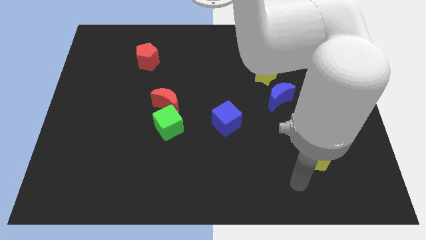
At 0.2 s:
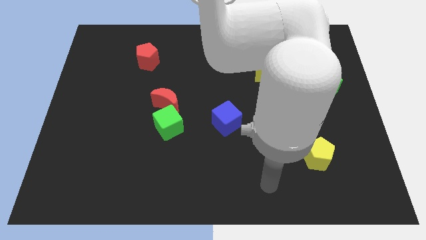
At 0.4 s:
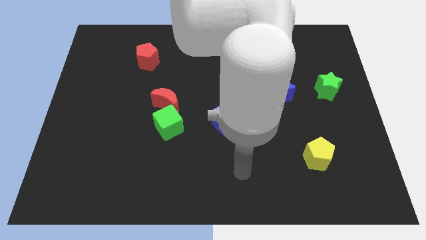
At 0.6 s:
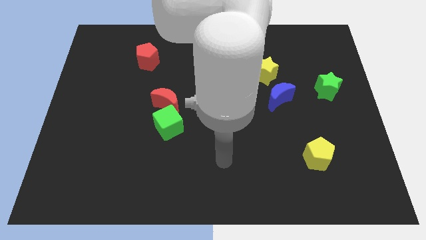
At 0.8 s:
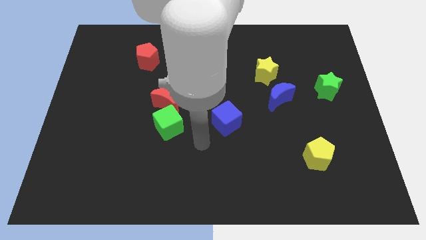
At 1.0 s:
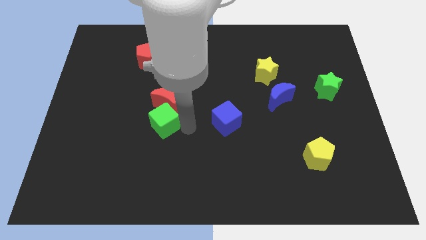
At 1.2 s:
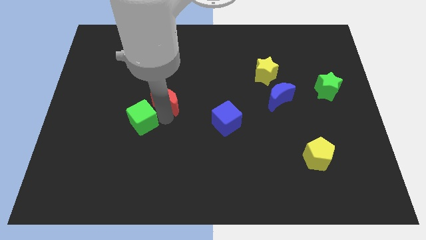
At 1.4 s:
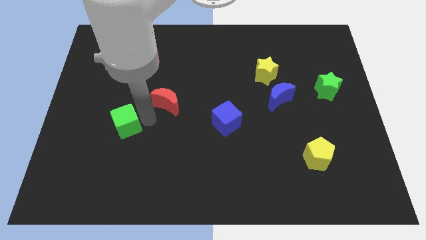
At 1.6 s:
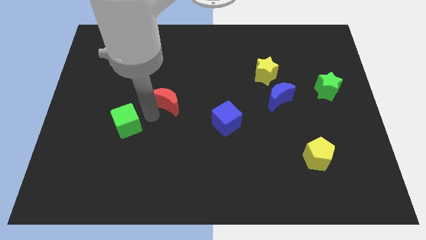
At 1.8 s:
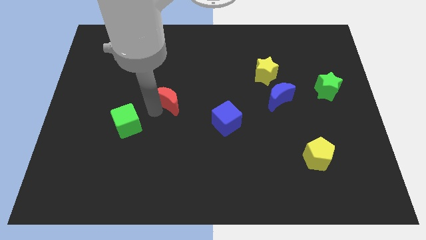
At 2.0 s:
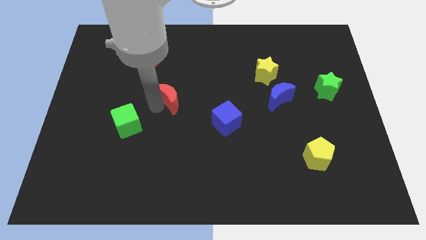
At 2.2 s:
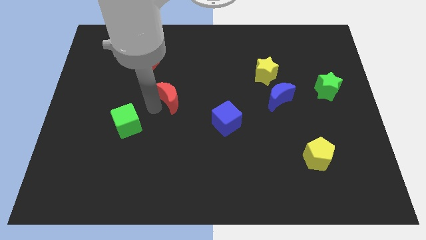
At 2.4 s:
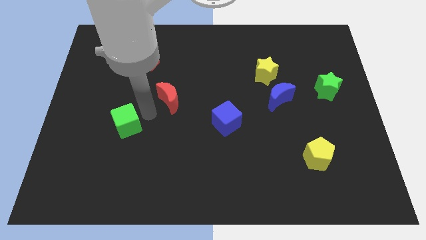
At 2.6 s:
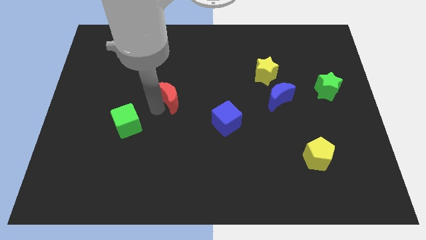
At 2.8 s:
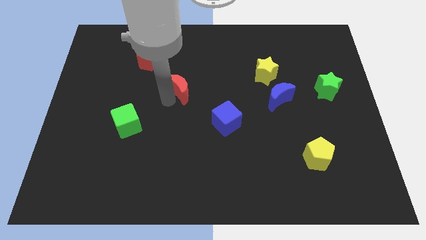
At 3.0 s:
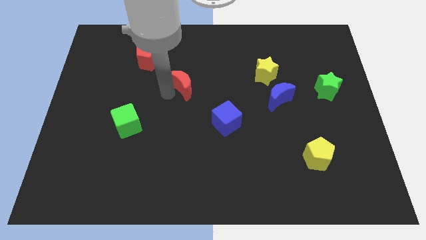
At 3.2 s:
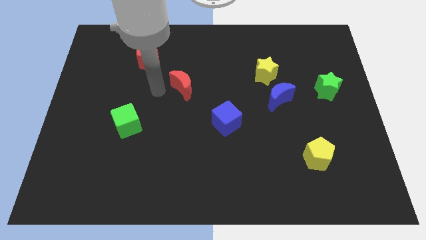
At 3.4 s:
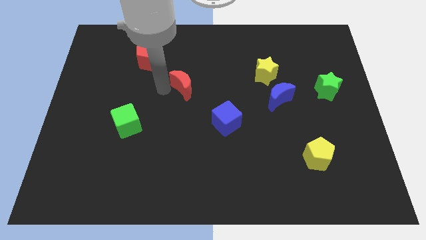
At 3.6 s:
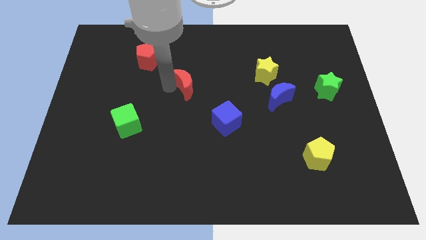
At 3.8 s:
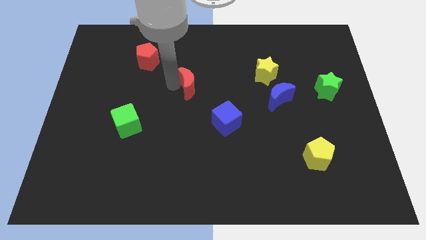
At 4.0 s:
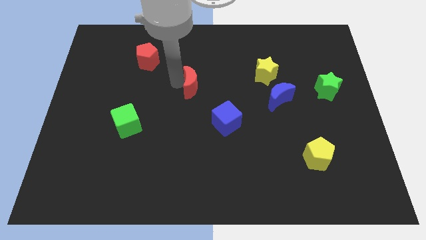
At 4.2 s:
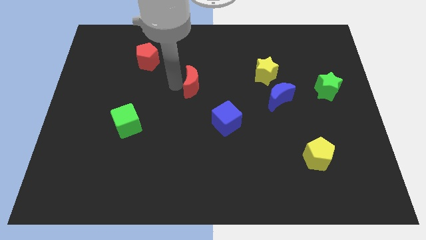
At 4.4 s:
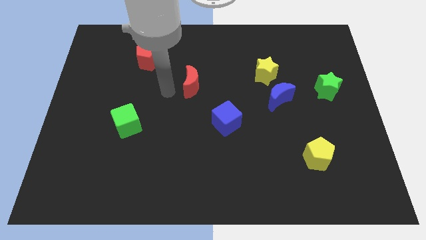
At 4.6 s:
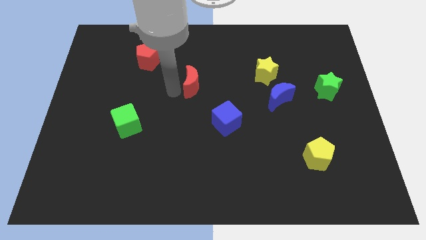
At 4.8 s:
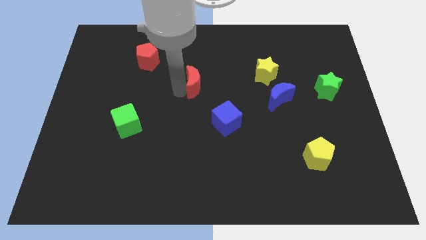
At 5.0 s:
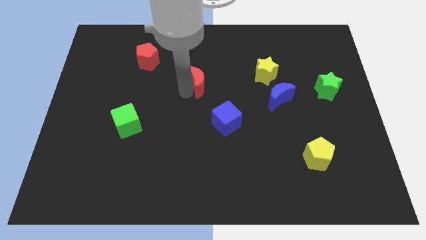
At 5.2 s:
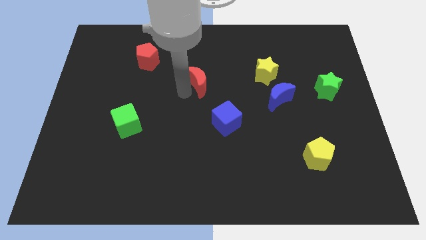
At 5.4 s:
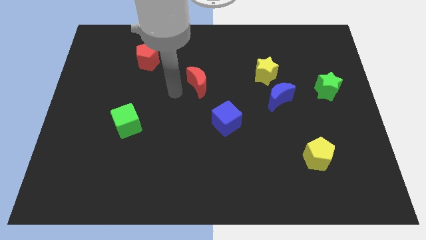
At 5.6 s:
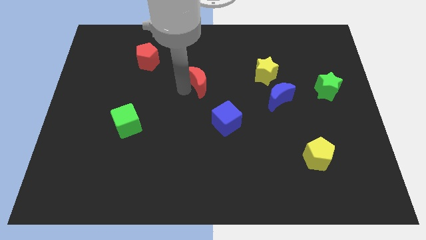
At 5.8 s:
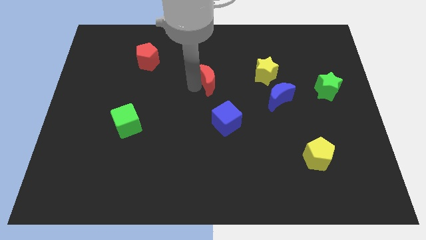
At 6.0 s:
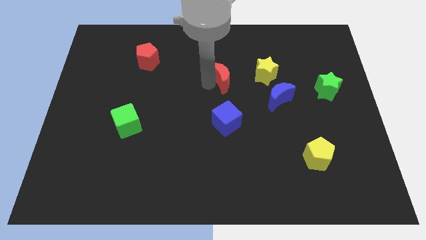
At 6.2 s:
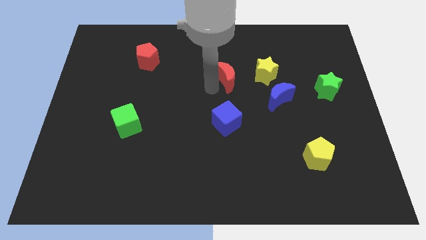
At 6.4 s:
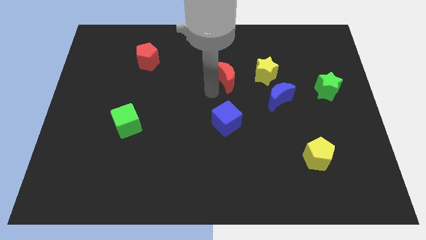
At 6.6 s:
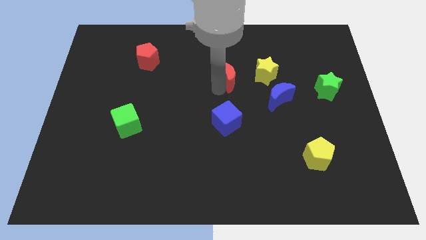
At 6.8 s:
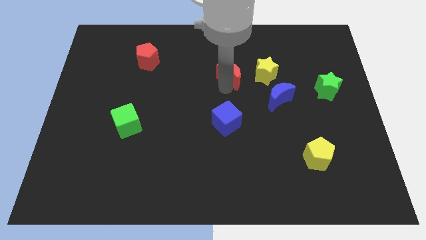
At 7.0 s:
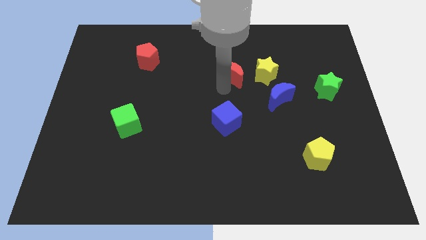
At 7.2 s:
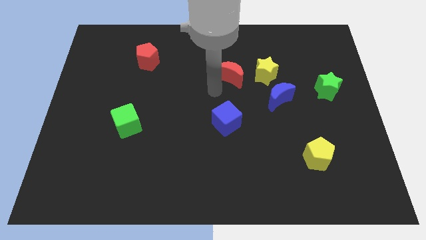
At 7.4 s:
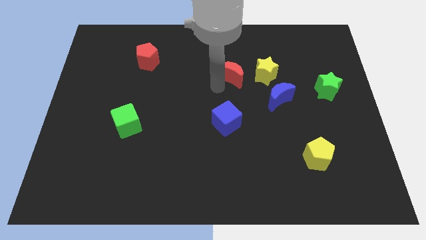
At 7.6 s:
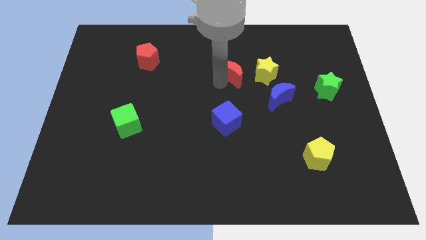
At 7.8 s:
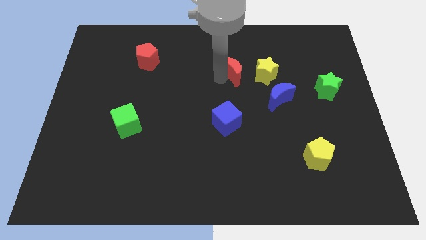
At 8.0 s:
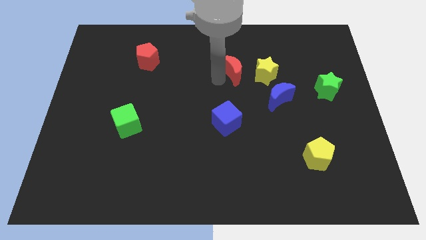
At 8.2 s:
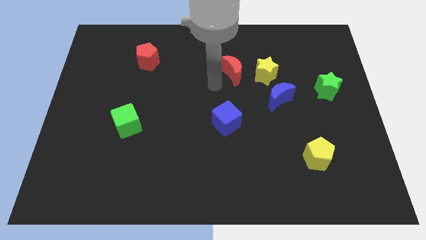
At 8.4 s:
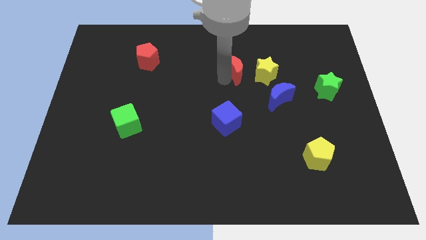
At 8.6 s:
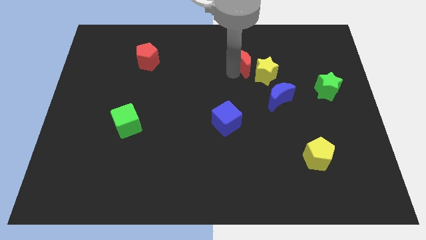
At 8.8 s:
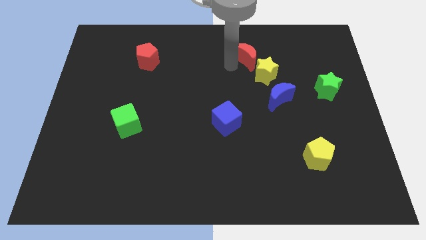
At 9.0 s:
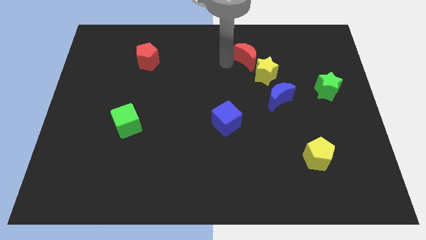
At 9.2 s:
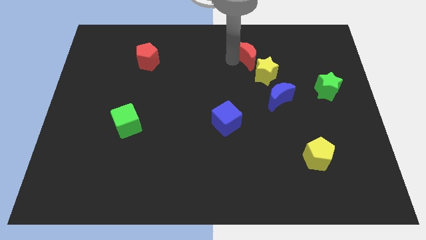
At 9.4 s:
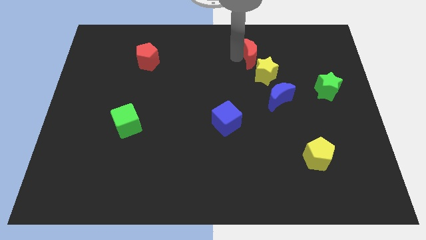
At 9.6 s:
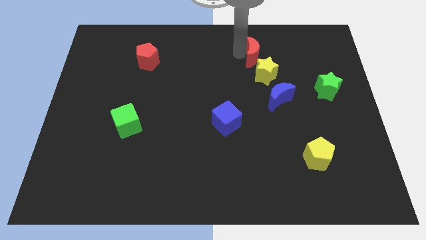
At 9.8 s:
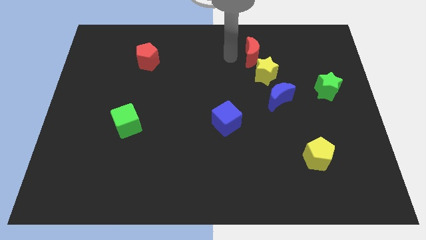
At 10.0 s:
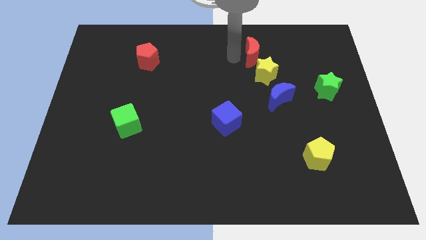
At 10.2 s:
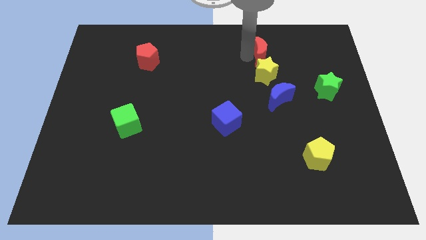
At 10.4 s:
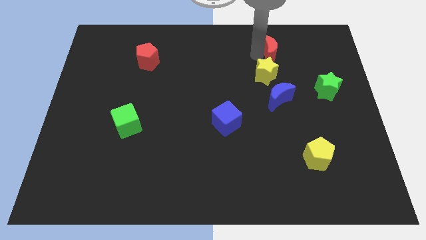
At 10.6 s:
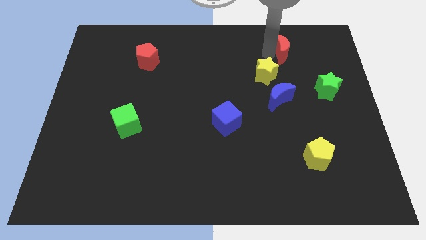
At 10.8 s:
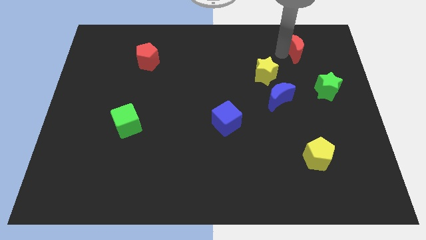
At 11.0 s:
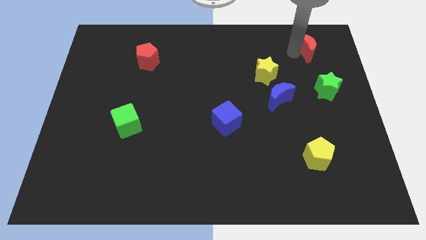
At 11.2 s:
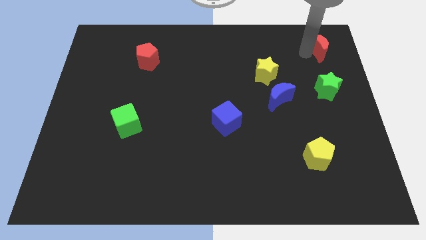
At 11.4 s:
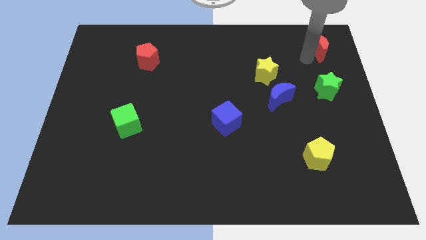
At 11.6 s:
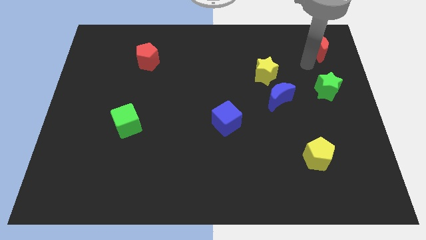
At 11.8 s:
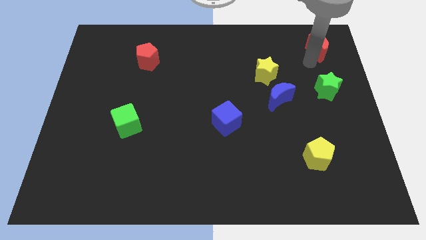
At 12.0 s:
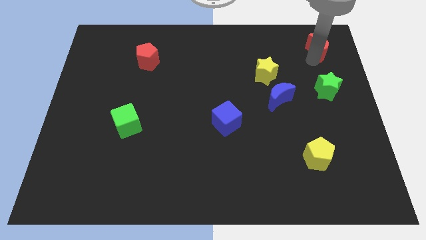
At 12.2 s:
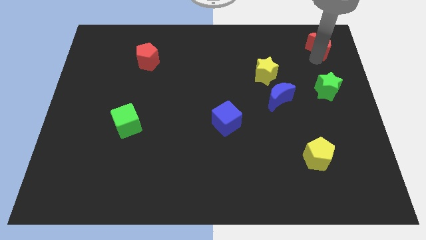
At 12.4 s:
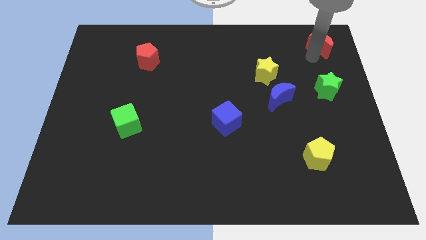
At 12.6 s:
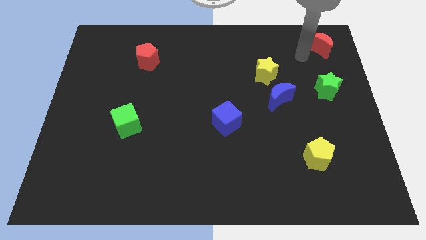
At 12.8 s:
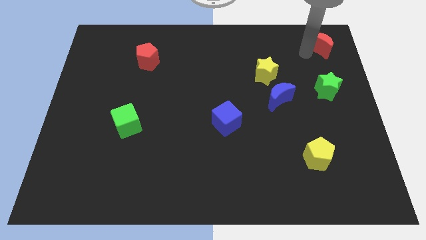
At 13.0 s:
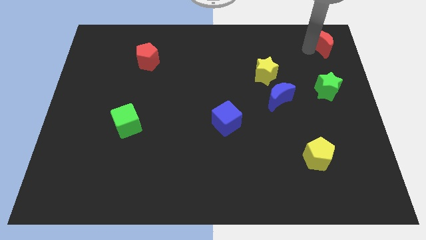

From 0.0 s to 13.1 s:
put the red moon to the top right
